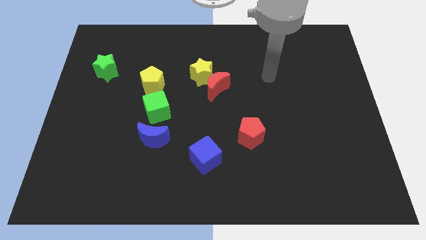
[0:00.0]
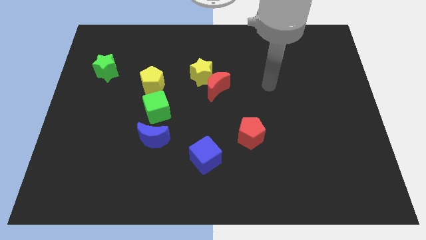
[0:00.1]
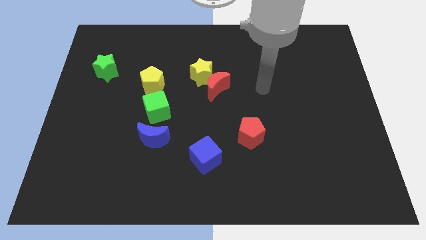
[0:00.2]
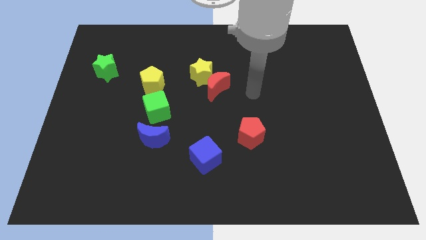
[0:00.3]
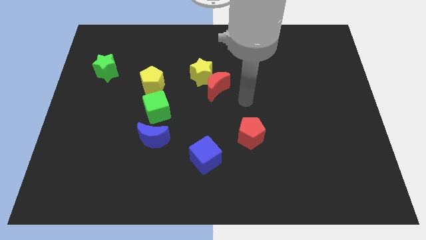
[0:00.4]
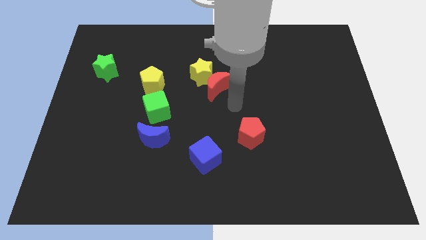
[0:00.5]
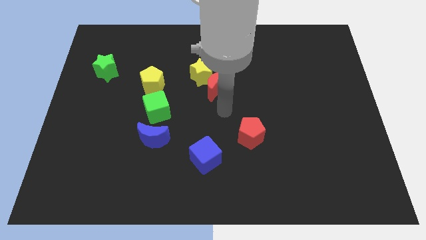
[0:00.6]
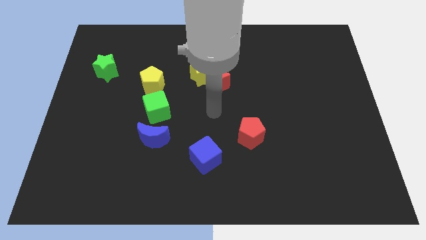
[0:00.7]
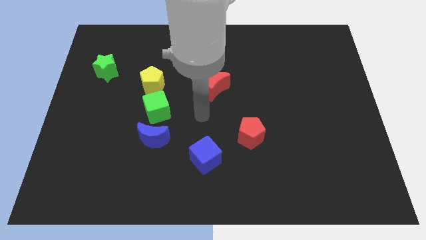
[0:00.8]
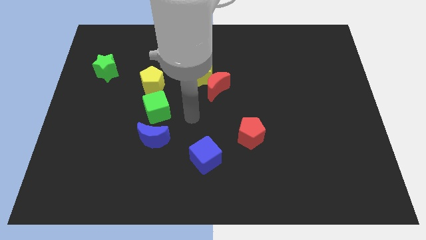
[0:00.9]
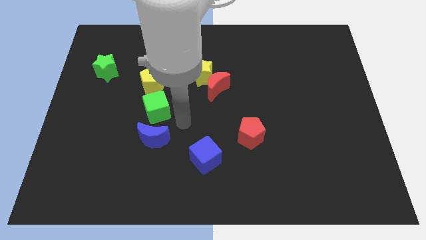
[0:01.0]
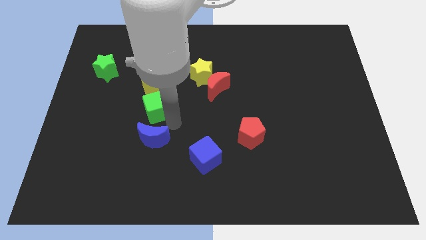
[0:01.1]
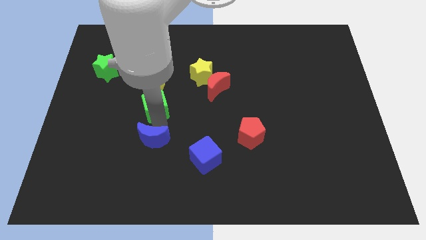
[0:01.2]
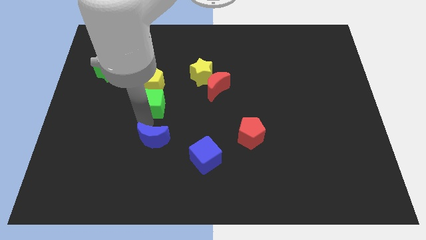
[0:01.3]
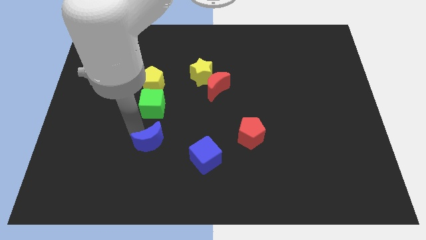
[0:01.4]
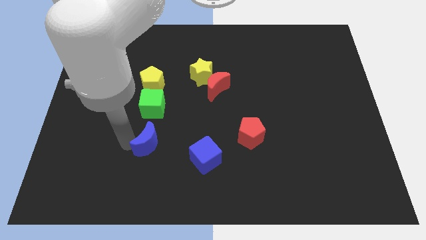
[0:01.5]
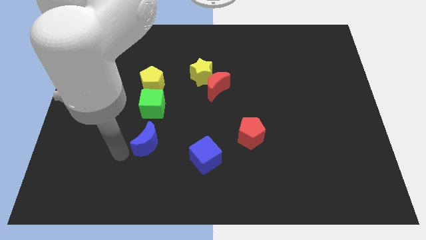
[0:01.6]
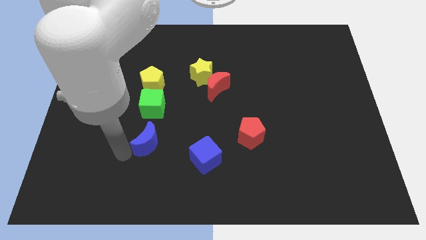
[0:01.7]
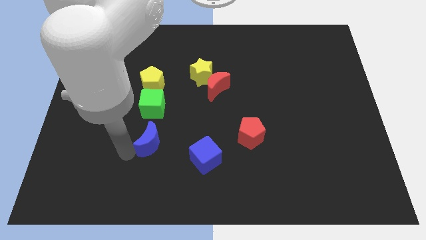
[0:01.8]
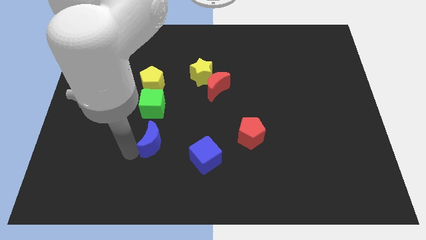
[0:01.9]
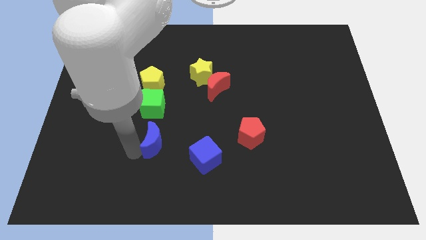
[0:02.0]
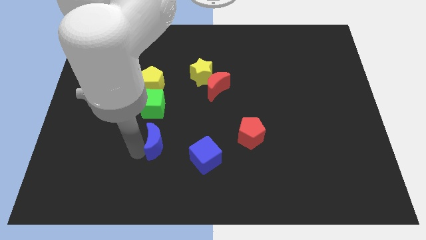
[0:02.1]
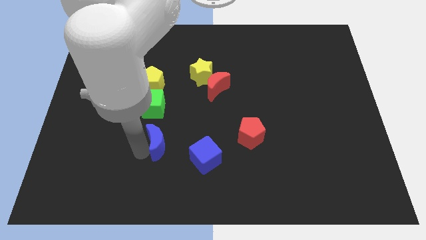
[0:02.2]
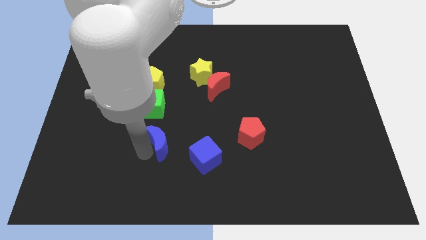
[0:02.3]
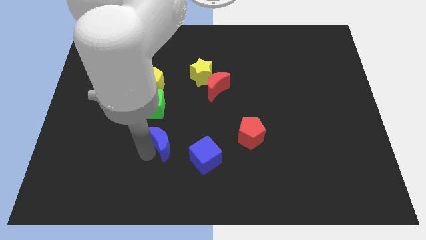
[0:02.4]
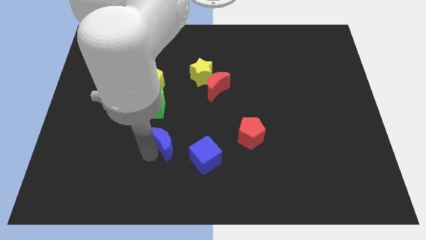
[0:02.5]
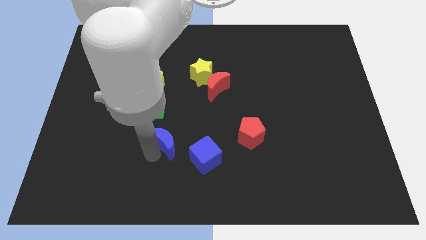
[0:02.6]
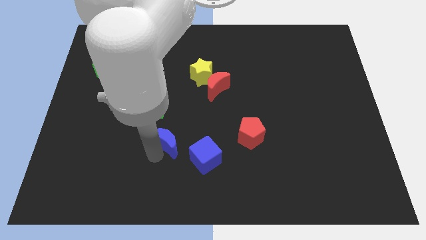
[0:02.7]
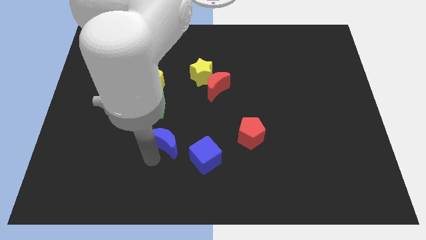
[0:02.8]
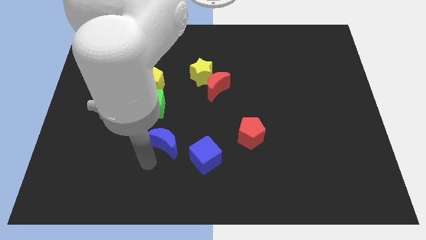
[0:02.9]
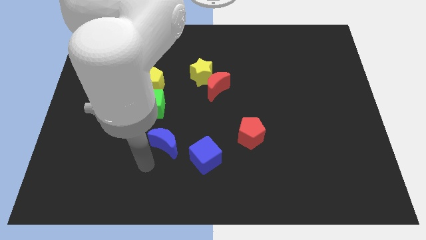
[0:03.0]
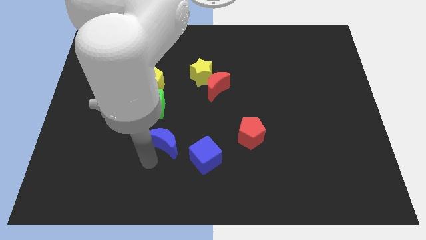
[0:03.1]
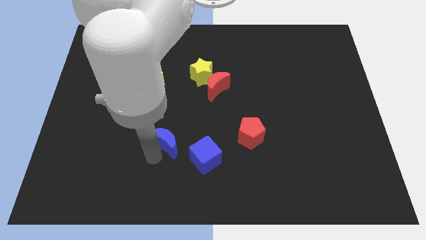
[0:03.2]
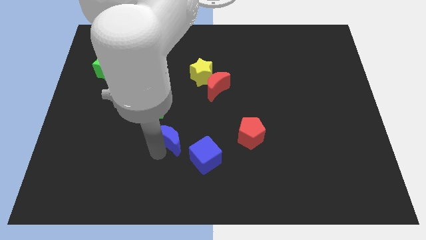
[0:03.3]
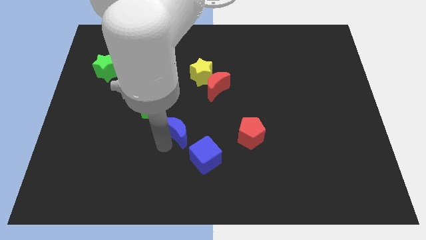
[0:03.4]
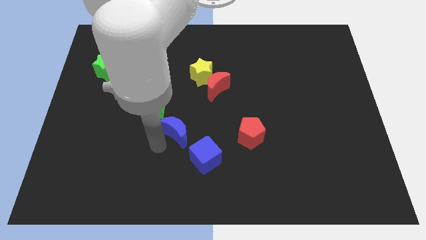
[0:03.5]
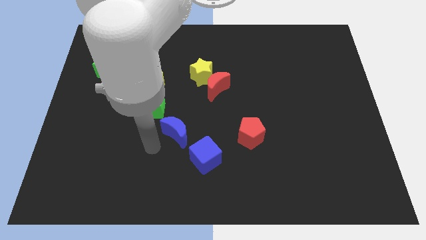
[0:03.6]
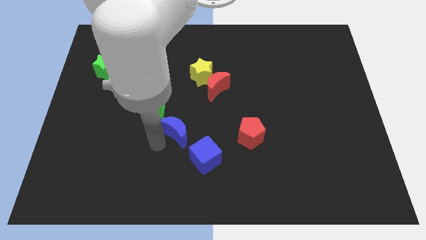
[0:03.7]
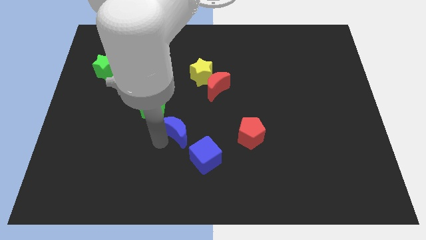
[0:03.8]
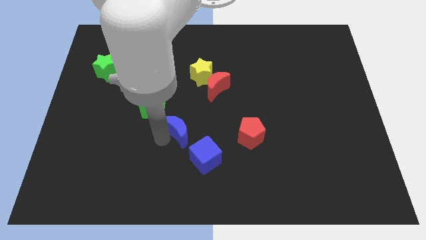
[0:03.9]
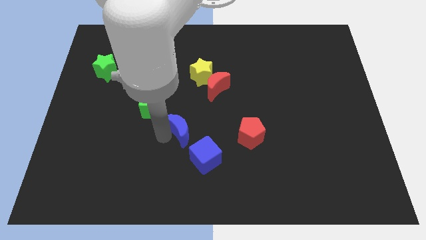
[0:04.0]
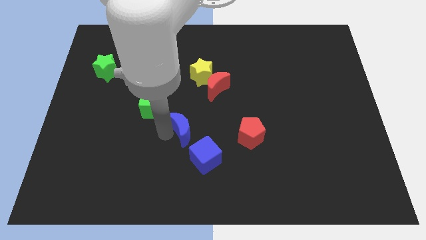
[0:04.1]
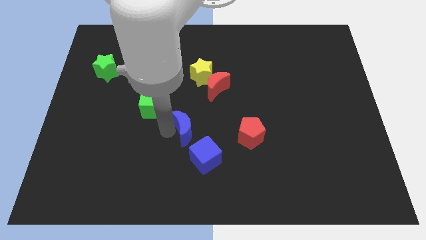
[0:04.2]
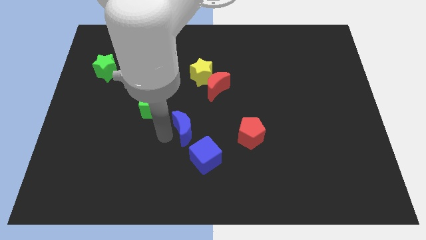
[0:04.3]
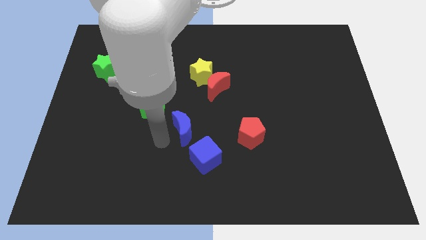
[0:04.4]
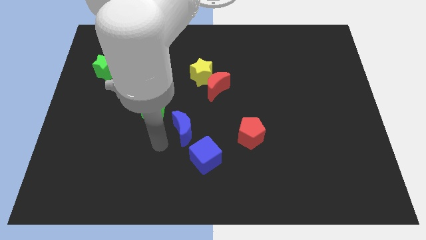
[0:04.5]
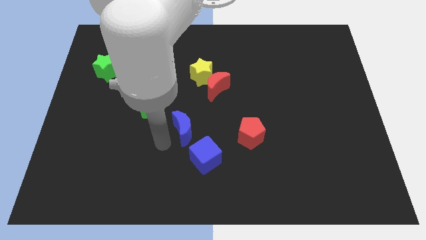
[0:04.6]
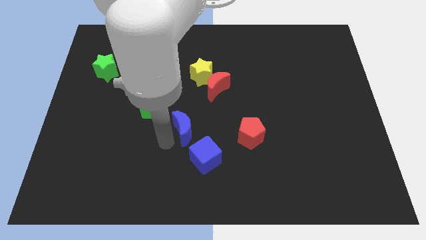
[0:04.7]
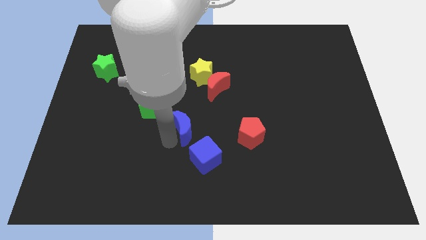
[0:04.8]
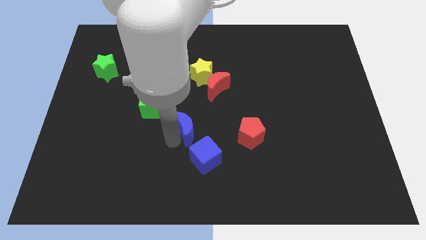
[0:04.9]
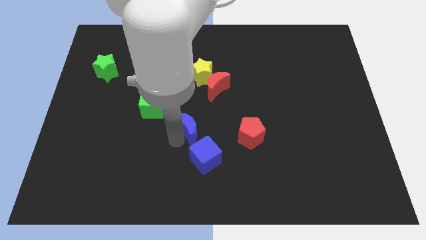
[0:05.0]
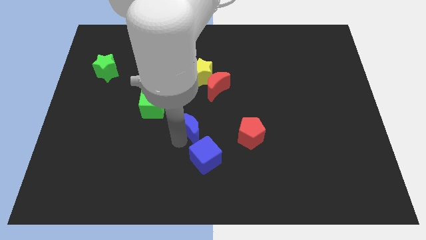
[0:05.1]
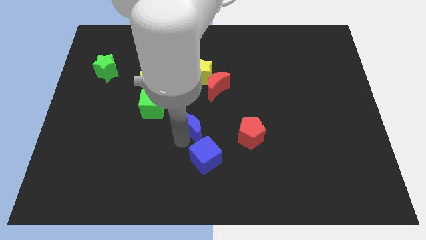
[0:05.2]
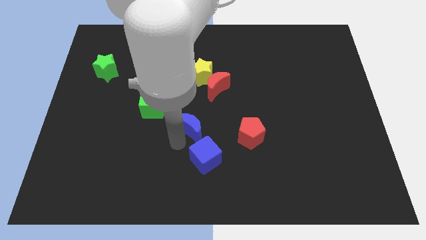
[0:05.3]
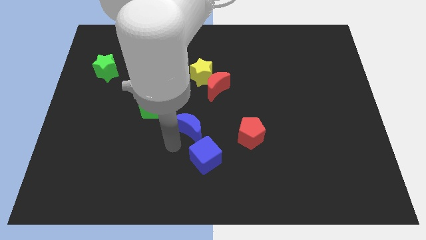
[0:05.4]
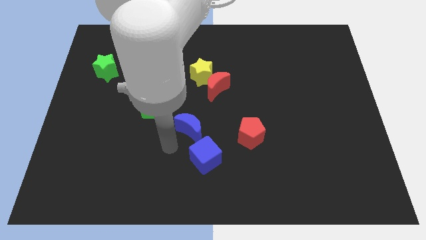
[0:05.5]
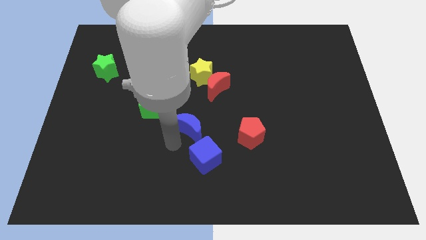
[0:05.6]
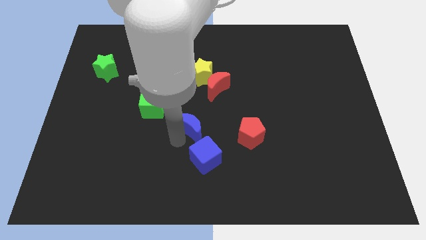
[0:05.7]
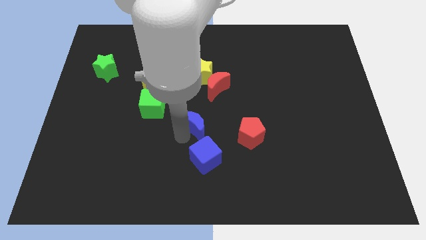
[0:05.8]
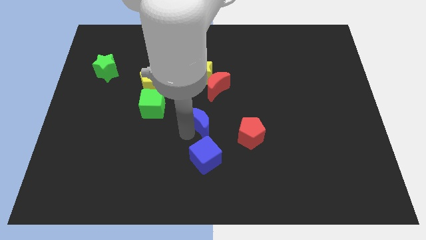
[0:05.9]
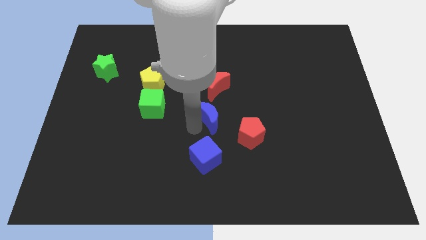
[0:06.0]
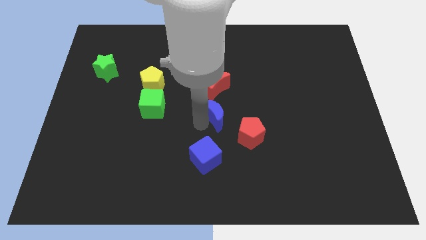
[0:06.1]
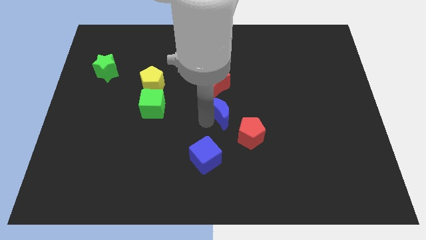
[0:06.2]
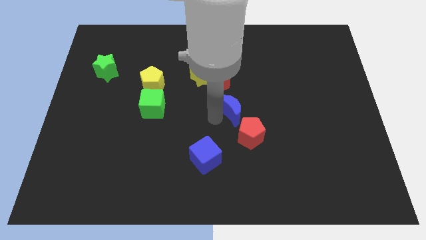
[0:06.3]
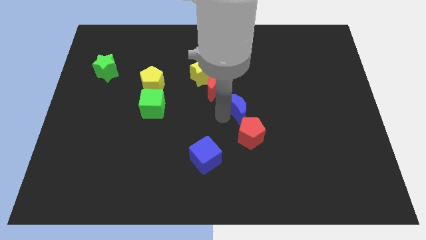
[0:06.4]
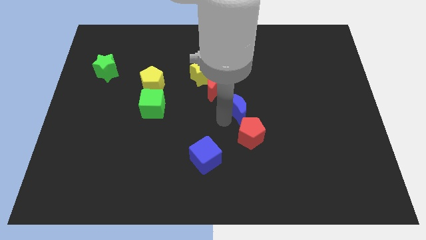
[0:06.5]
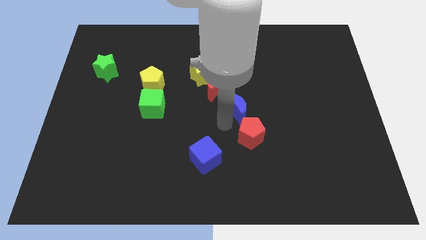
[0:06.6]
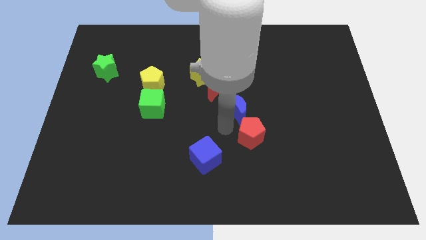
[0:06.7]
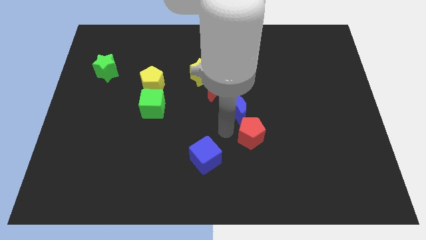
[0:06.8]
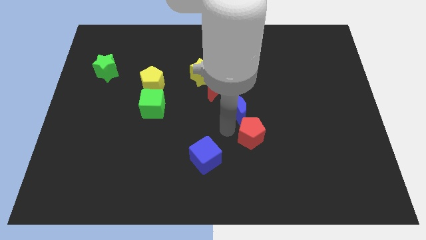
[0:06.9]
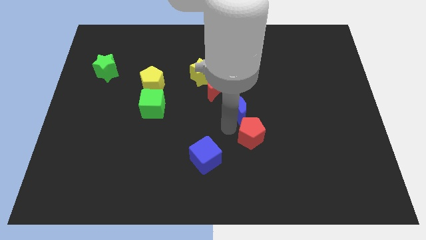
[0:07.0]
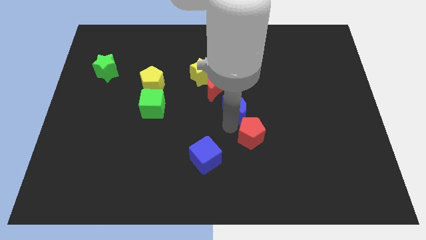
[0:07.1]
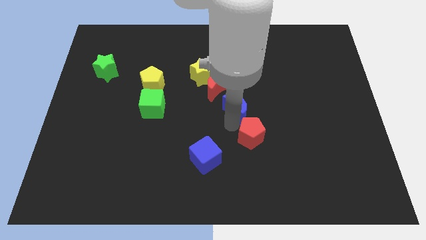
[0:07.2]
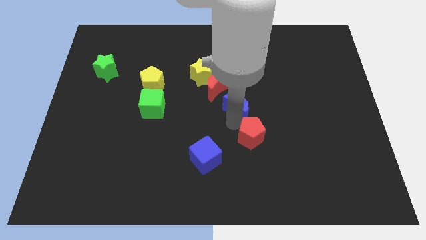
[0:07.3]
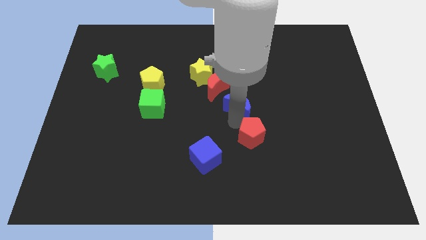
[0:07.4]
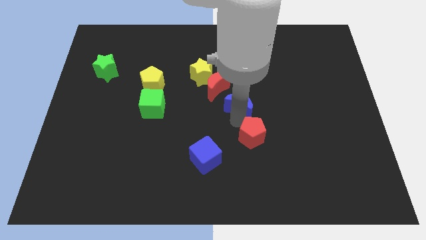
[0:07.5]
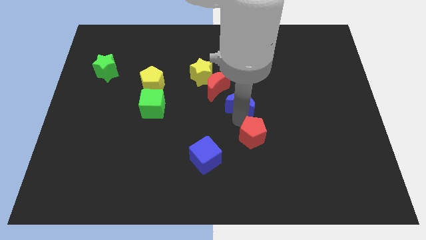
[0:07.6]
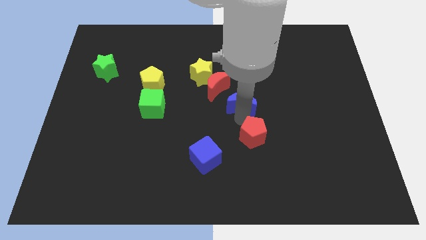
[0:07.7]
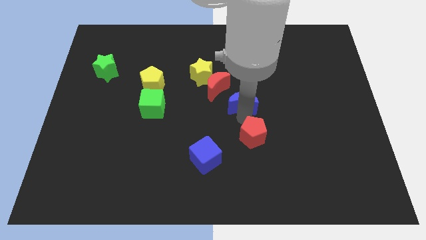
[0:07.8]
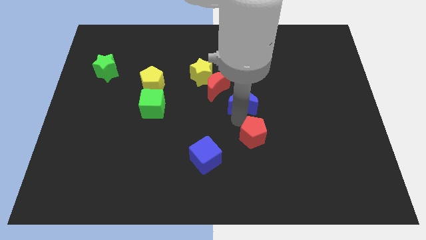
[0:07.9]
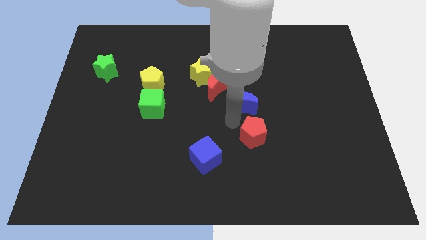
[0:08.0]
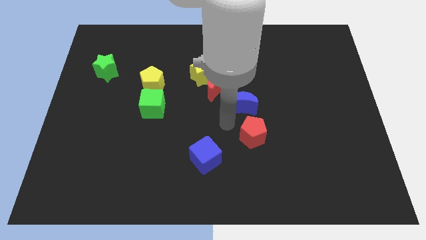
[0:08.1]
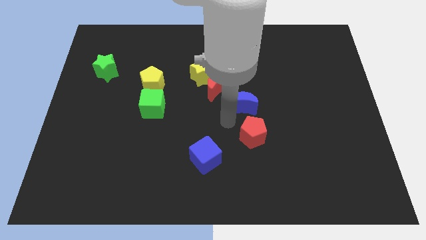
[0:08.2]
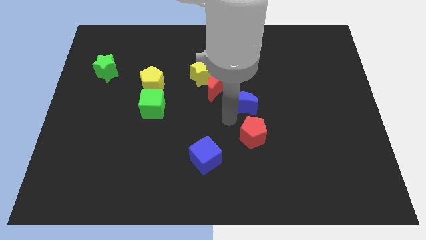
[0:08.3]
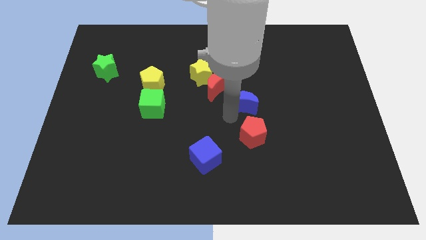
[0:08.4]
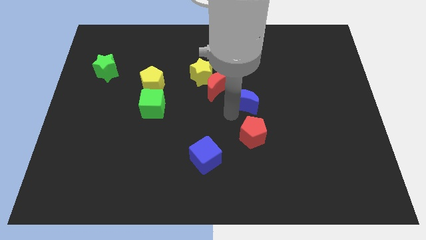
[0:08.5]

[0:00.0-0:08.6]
slide the blue moon to the right side of the red moon
